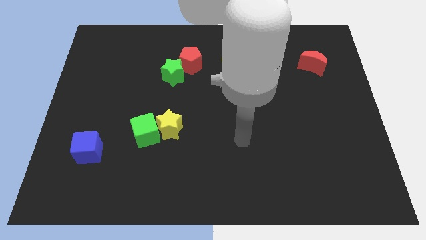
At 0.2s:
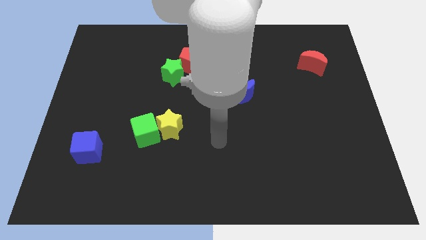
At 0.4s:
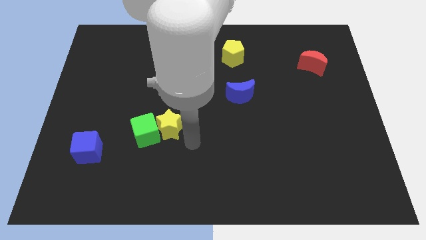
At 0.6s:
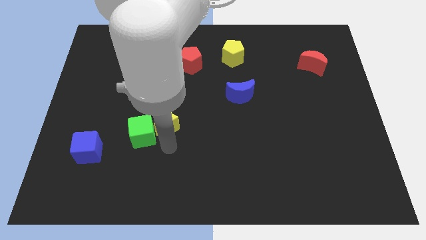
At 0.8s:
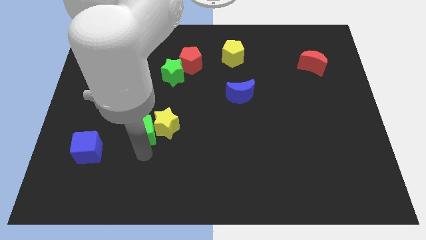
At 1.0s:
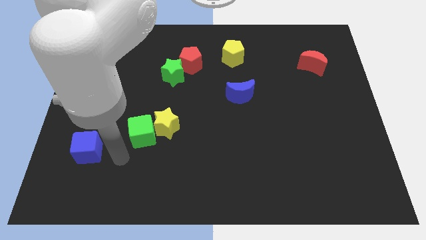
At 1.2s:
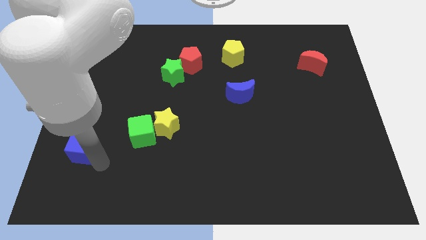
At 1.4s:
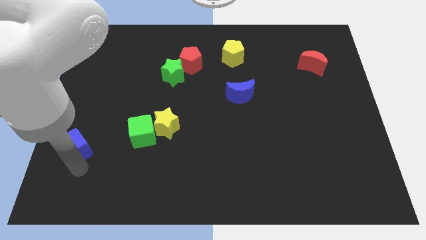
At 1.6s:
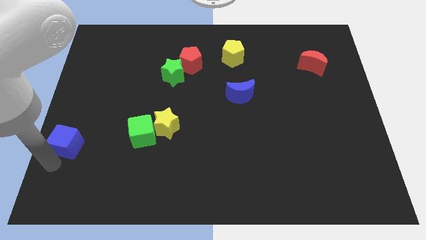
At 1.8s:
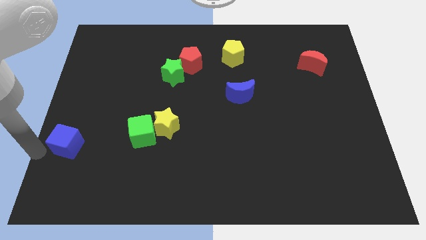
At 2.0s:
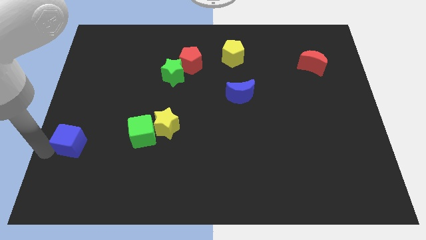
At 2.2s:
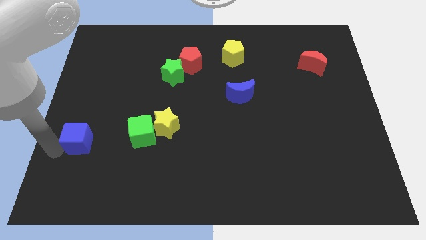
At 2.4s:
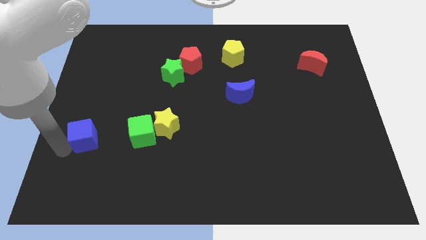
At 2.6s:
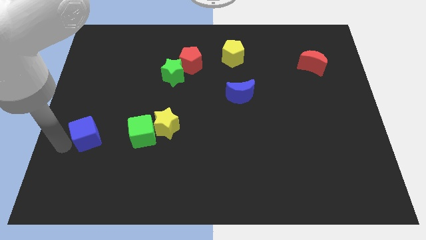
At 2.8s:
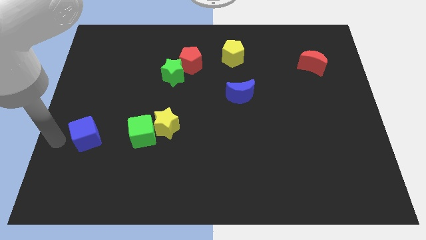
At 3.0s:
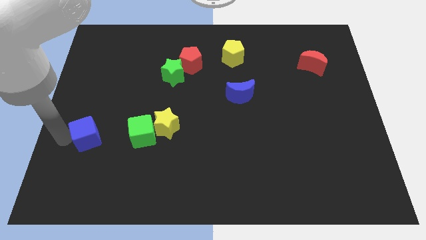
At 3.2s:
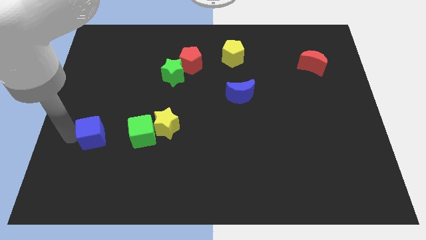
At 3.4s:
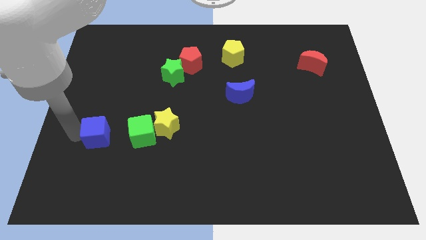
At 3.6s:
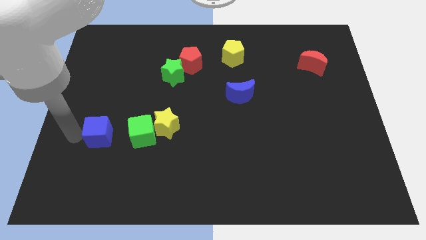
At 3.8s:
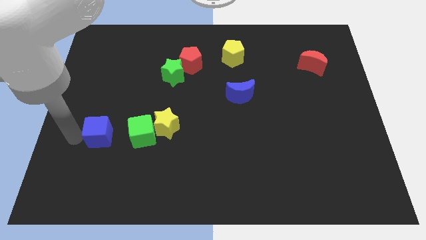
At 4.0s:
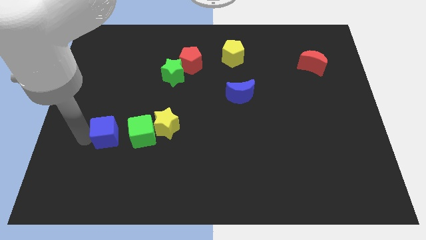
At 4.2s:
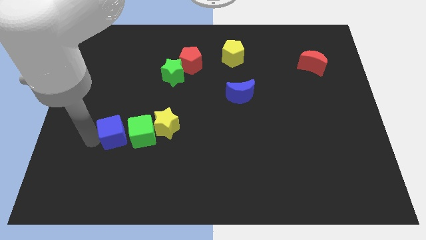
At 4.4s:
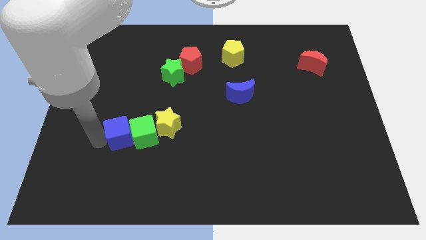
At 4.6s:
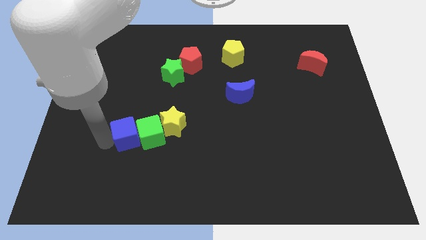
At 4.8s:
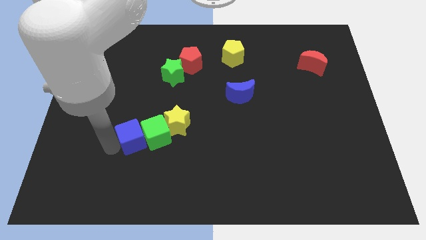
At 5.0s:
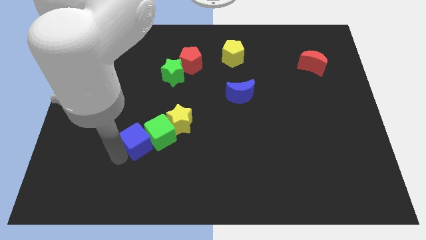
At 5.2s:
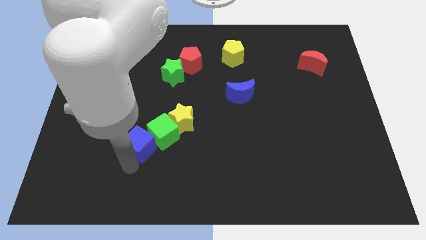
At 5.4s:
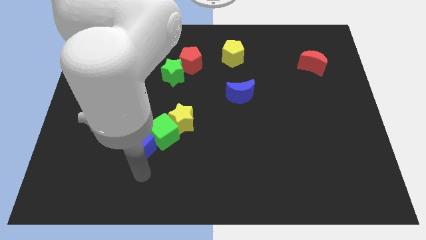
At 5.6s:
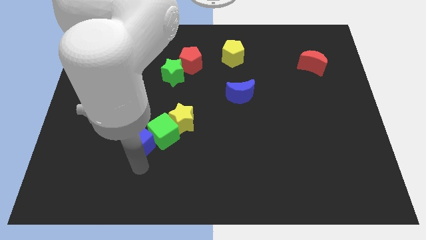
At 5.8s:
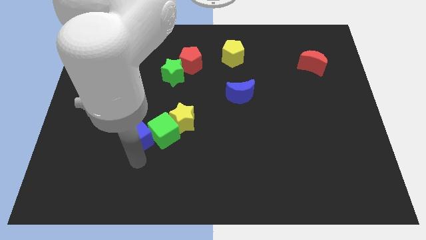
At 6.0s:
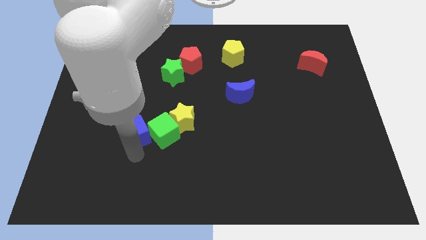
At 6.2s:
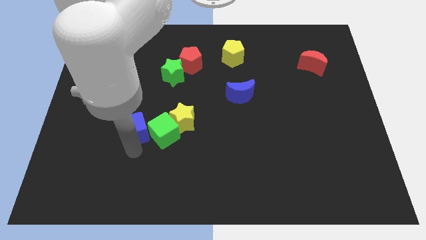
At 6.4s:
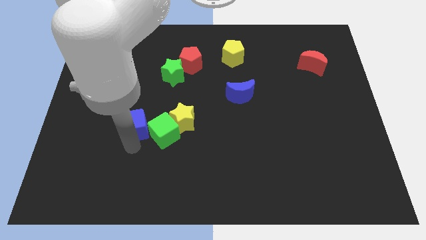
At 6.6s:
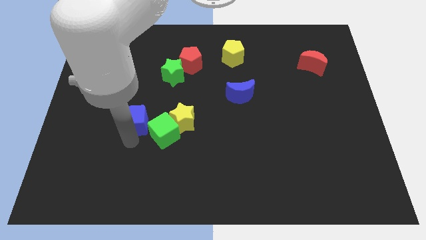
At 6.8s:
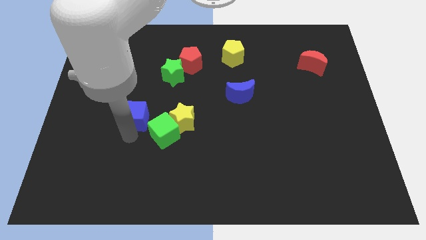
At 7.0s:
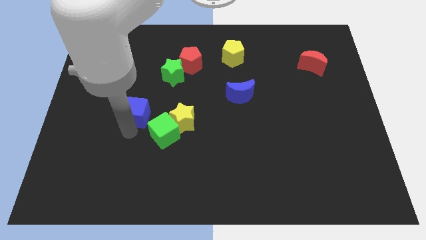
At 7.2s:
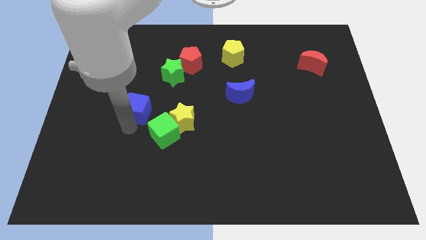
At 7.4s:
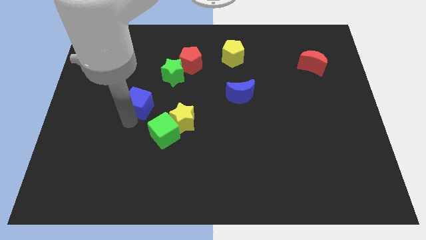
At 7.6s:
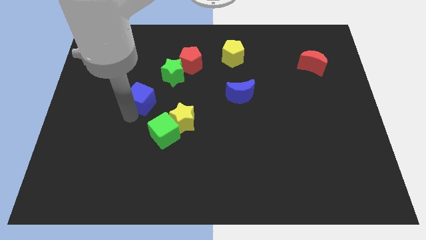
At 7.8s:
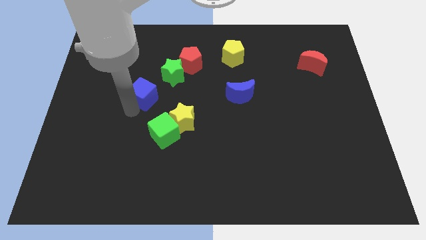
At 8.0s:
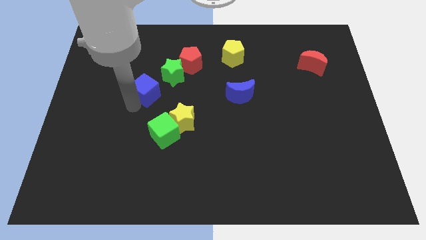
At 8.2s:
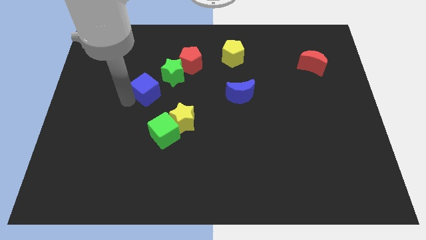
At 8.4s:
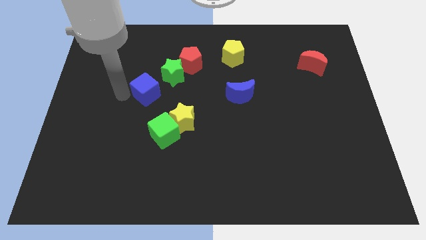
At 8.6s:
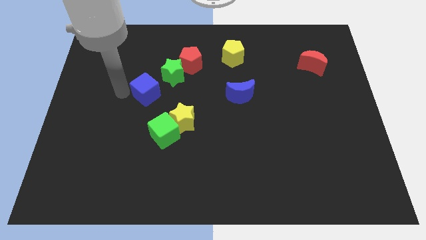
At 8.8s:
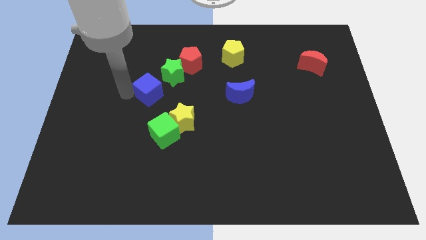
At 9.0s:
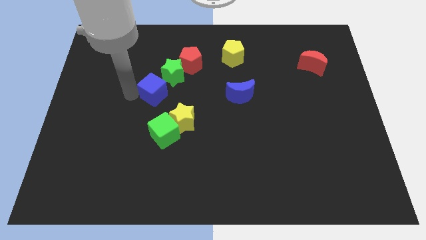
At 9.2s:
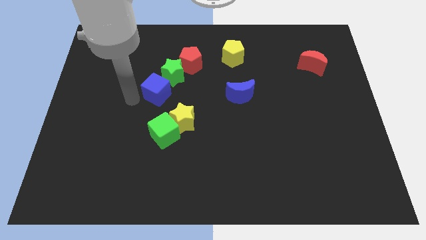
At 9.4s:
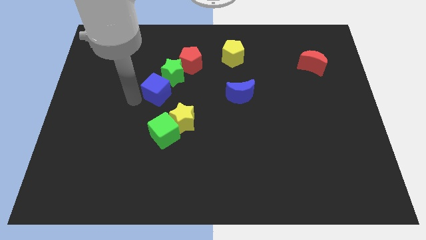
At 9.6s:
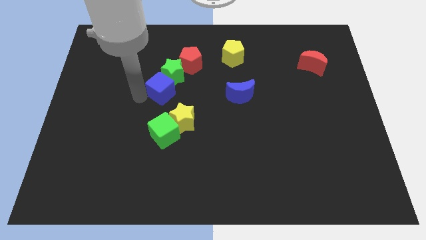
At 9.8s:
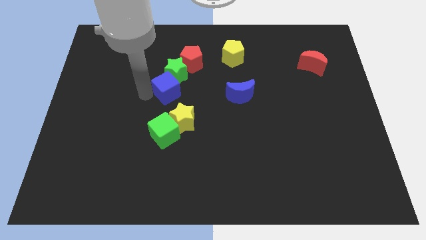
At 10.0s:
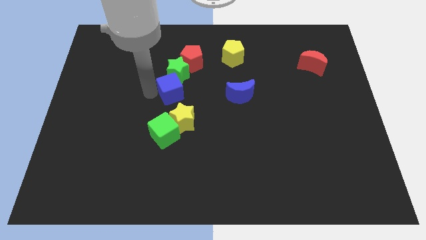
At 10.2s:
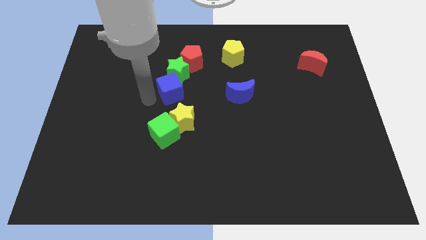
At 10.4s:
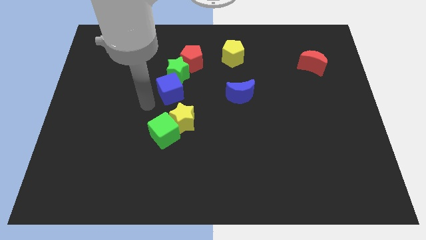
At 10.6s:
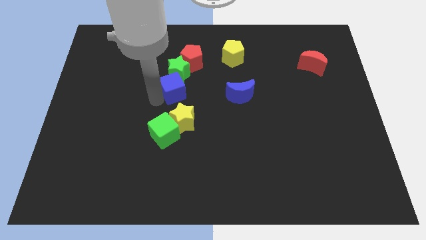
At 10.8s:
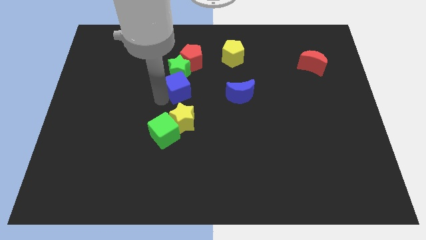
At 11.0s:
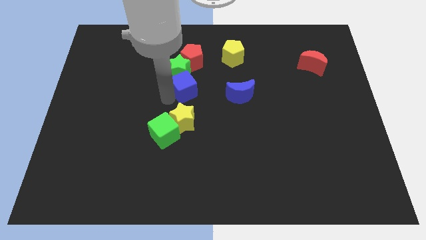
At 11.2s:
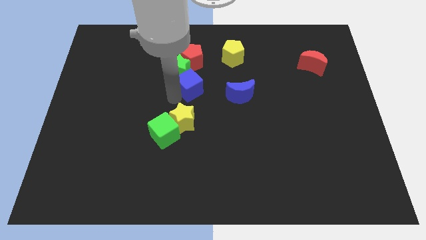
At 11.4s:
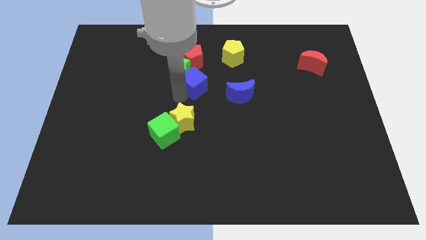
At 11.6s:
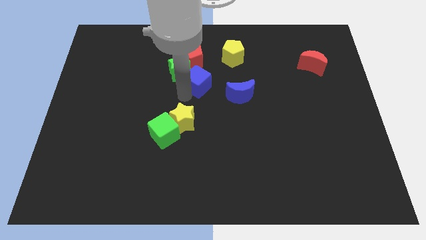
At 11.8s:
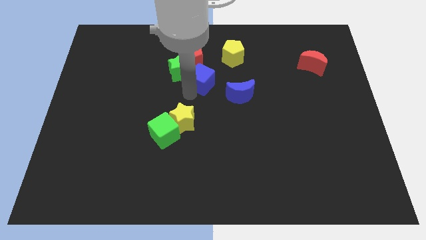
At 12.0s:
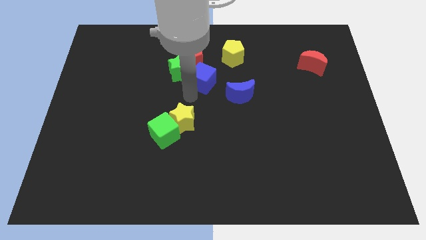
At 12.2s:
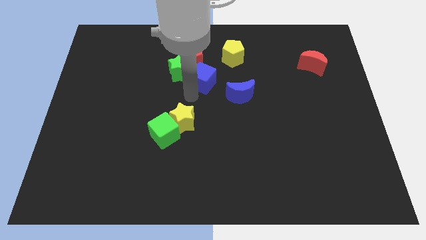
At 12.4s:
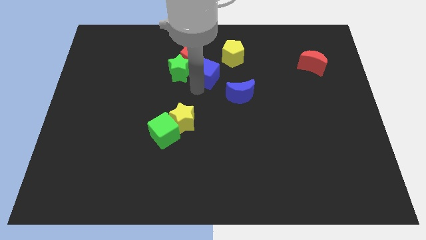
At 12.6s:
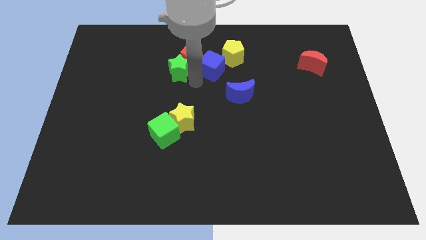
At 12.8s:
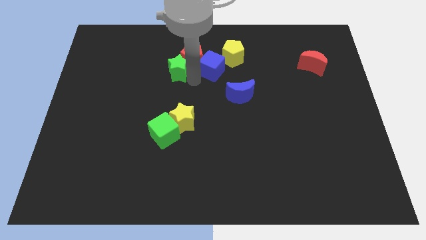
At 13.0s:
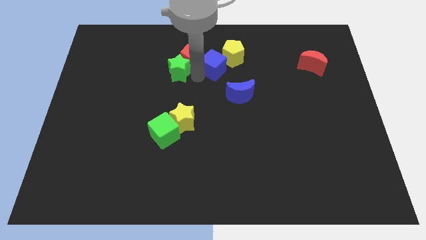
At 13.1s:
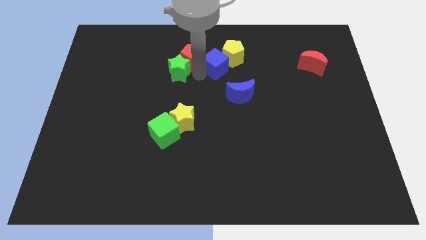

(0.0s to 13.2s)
push the blue cube next to the yellow pentagon
